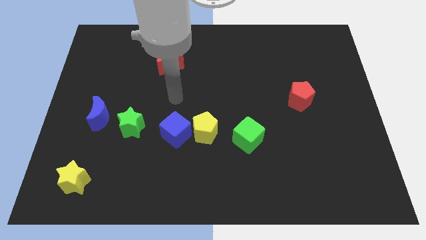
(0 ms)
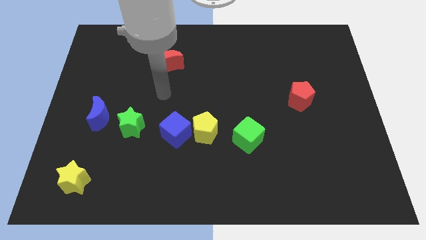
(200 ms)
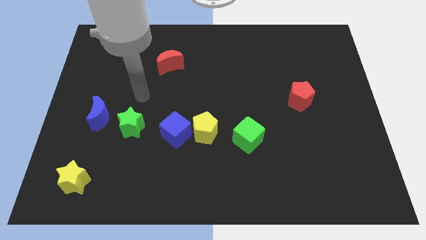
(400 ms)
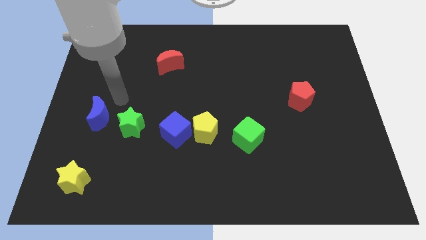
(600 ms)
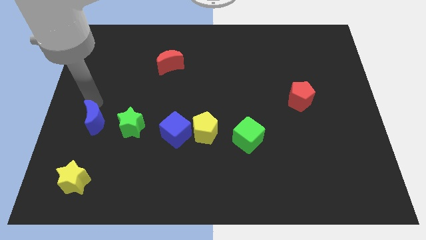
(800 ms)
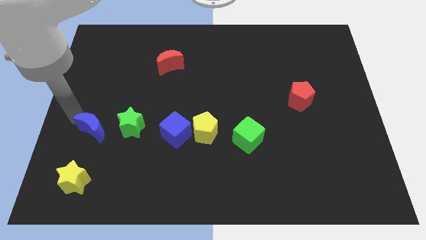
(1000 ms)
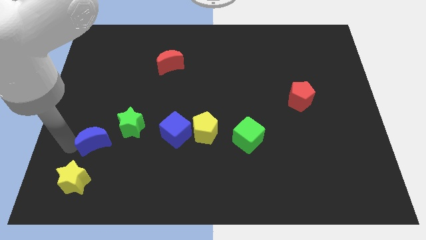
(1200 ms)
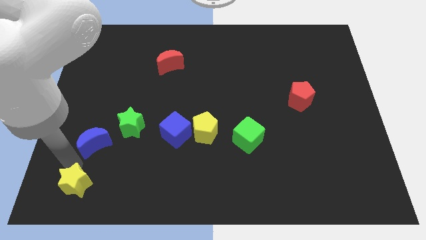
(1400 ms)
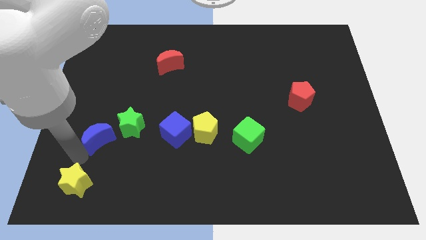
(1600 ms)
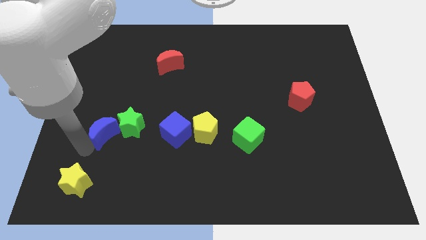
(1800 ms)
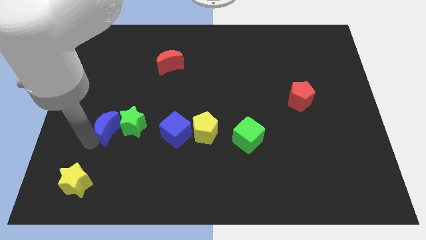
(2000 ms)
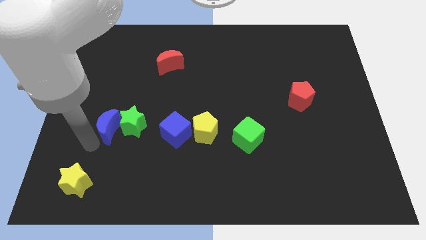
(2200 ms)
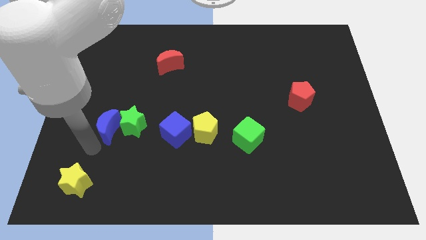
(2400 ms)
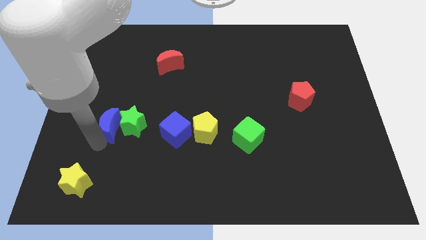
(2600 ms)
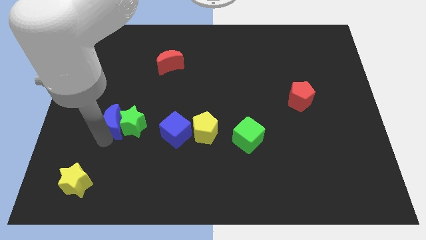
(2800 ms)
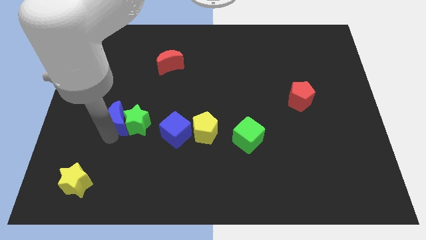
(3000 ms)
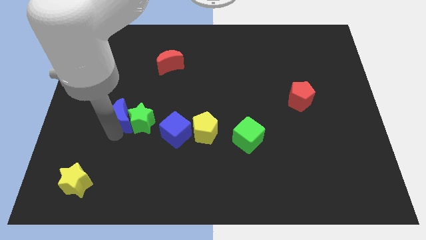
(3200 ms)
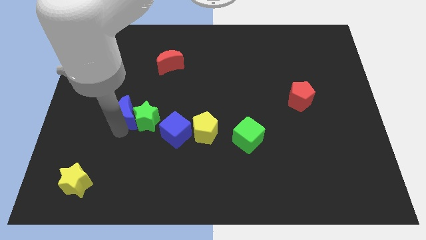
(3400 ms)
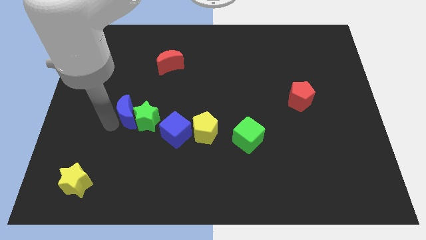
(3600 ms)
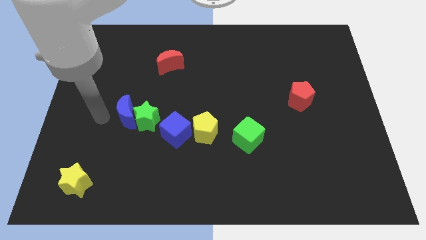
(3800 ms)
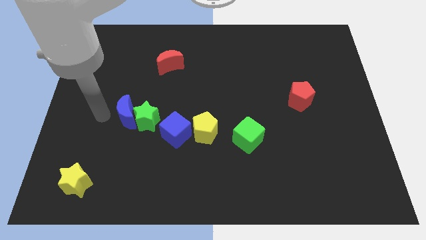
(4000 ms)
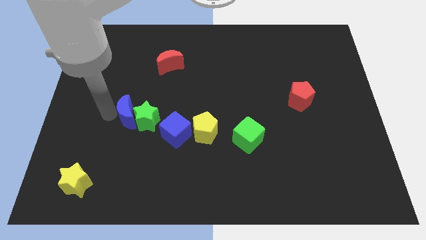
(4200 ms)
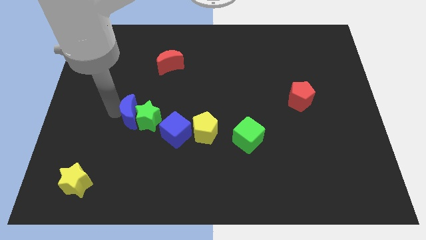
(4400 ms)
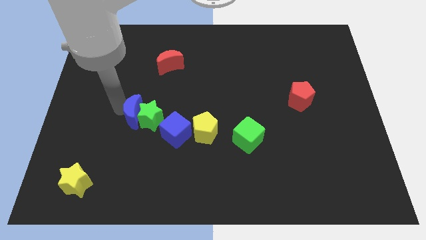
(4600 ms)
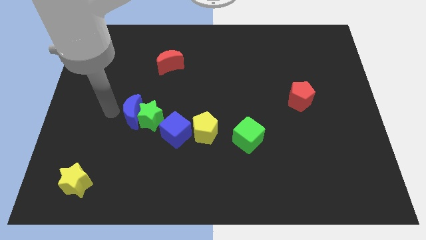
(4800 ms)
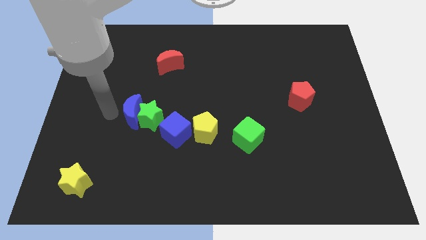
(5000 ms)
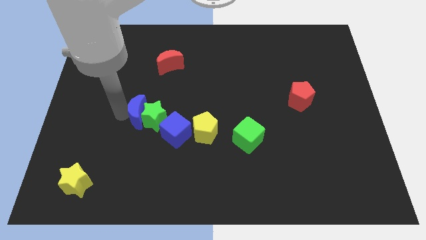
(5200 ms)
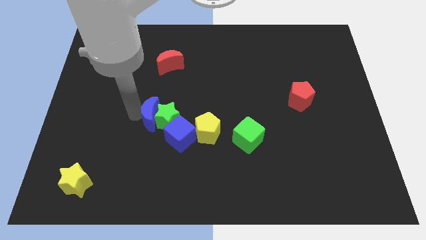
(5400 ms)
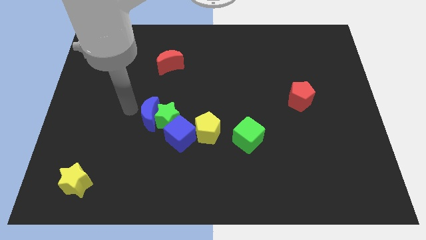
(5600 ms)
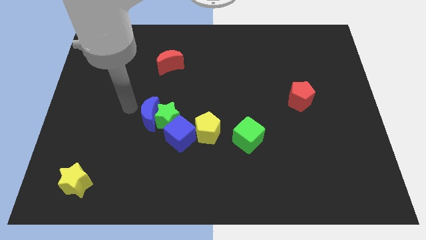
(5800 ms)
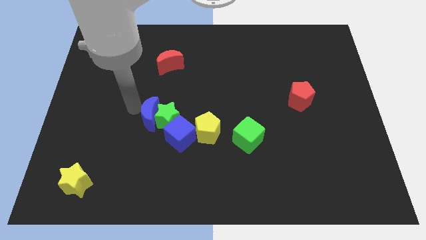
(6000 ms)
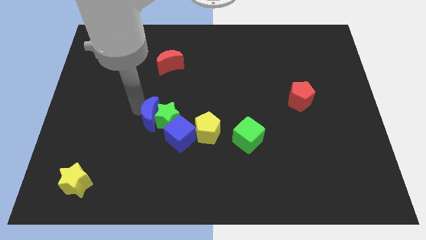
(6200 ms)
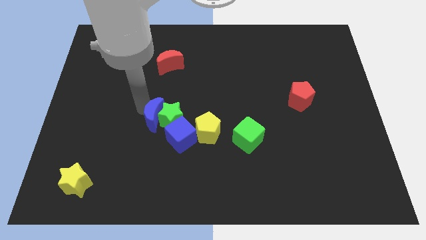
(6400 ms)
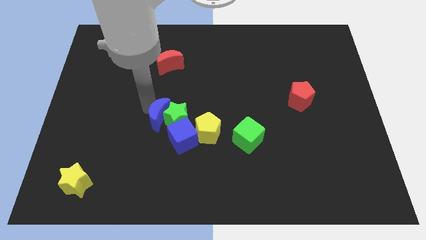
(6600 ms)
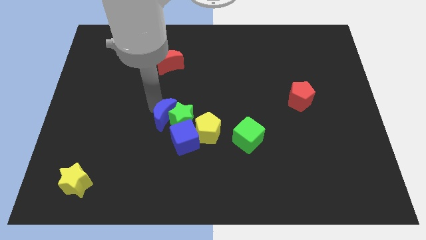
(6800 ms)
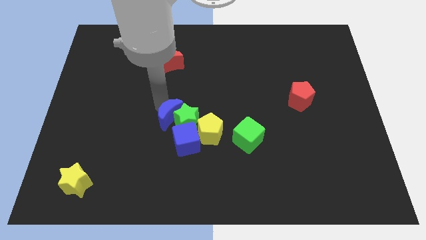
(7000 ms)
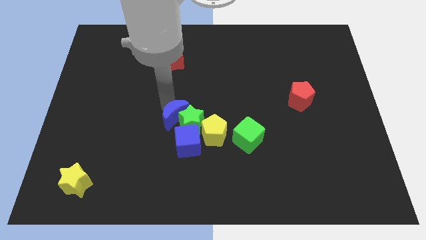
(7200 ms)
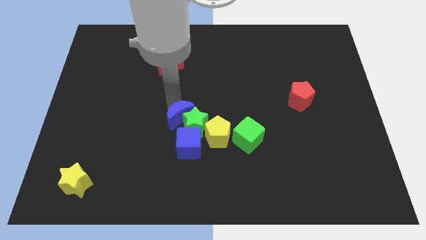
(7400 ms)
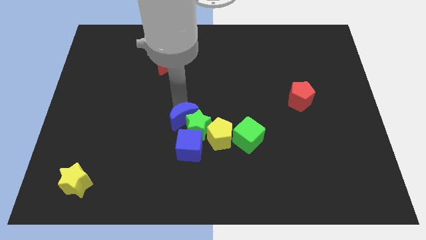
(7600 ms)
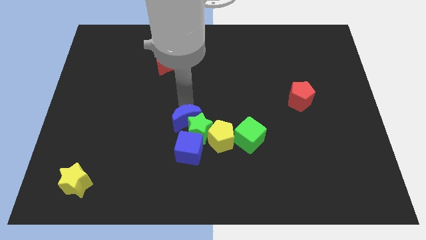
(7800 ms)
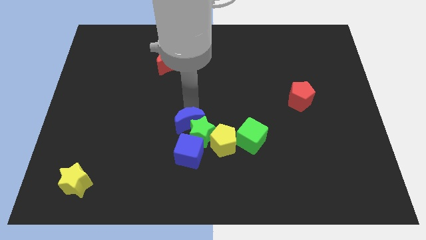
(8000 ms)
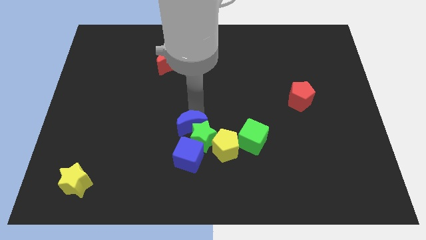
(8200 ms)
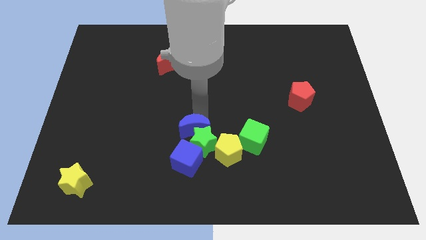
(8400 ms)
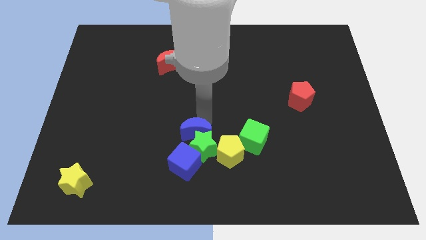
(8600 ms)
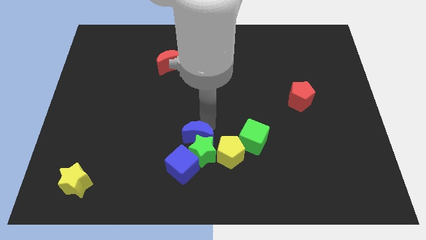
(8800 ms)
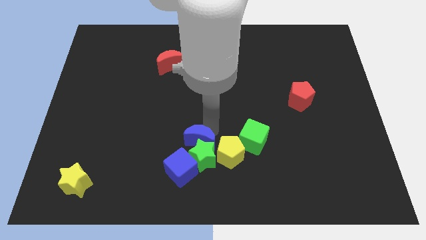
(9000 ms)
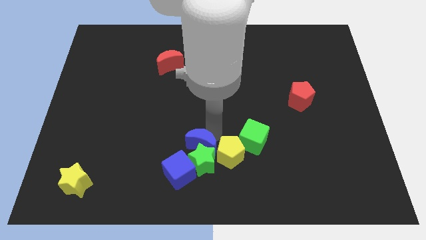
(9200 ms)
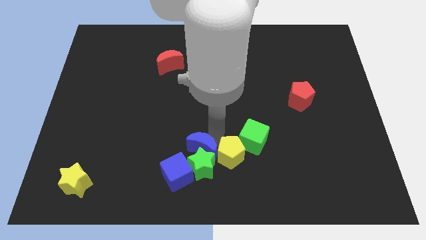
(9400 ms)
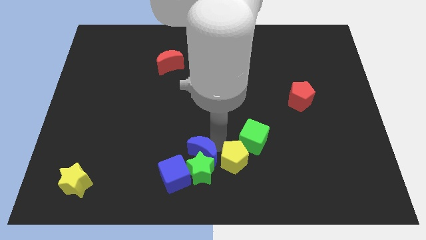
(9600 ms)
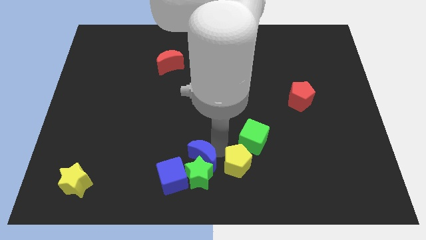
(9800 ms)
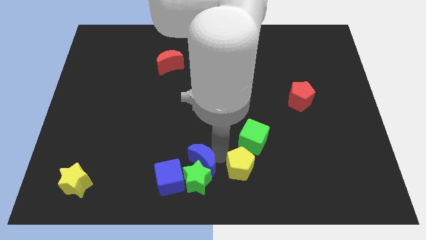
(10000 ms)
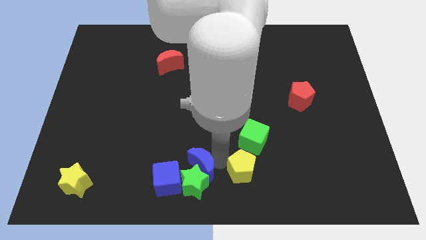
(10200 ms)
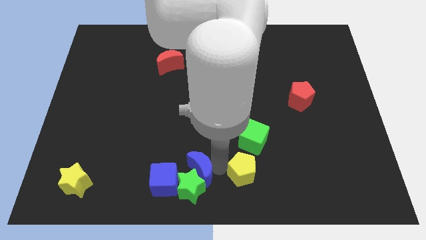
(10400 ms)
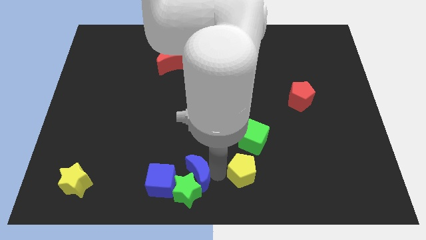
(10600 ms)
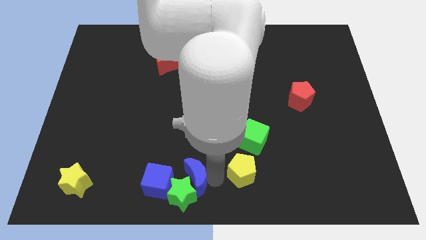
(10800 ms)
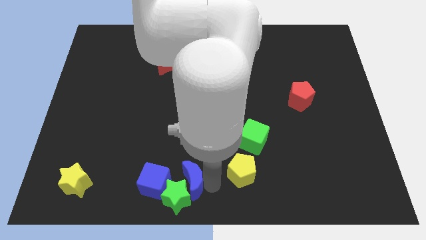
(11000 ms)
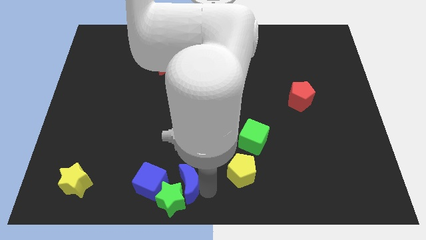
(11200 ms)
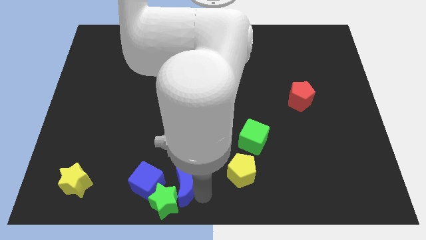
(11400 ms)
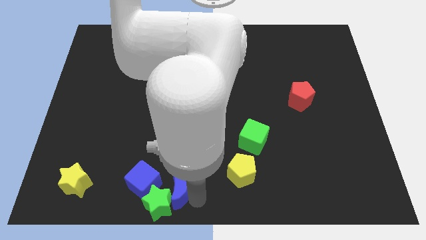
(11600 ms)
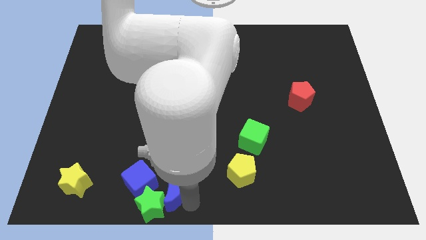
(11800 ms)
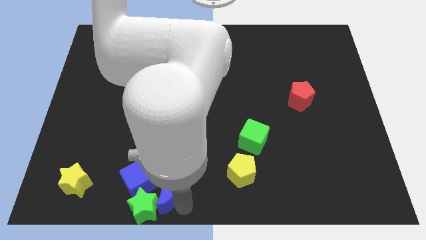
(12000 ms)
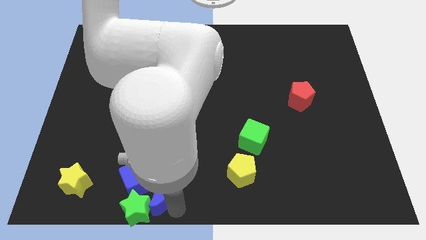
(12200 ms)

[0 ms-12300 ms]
move the blue moon close to the blue cube

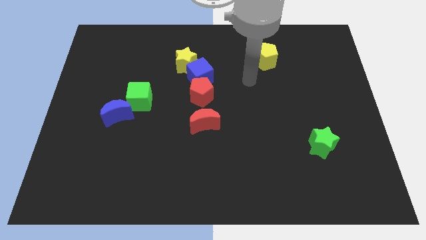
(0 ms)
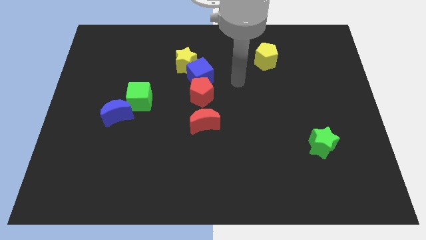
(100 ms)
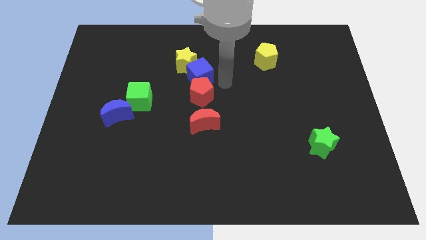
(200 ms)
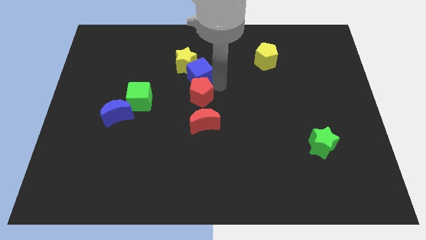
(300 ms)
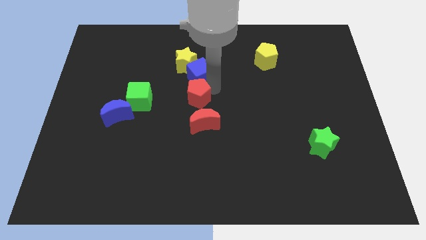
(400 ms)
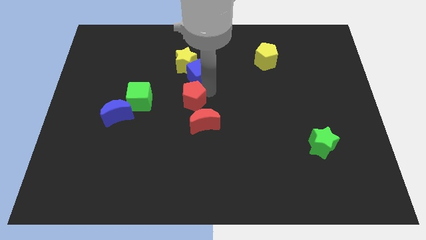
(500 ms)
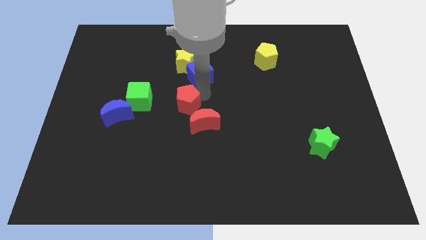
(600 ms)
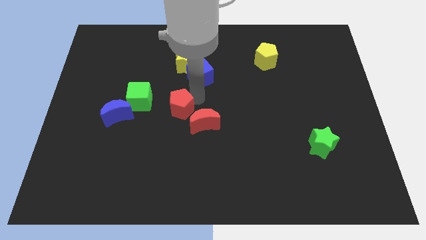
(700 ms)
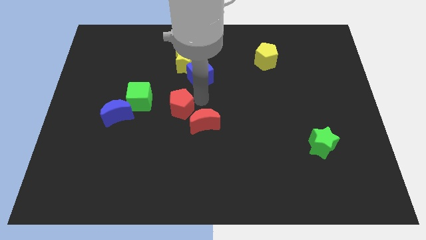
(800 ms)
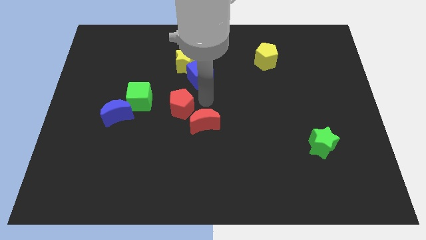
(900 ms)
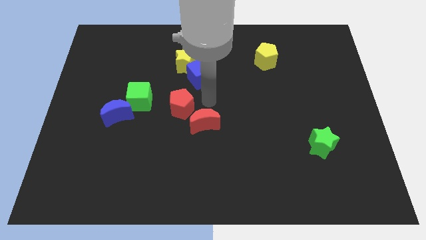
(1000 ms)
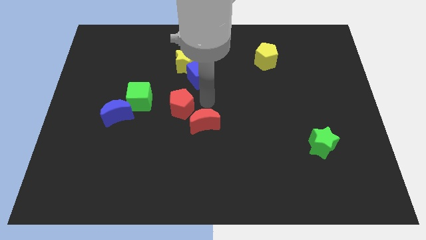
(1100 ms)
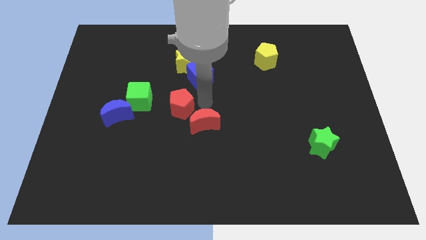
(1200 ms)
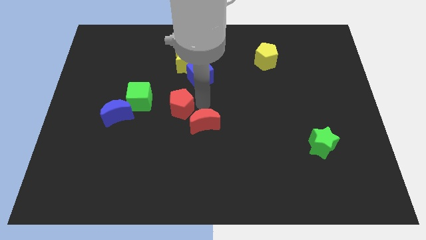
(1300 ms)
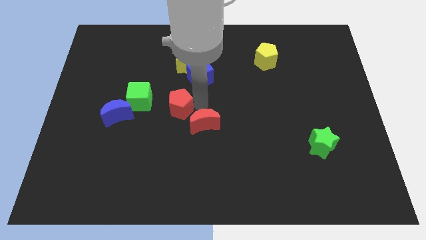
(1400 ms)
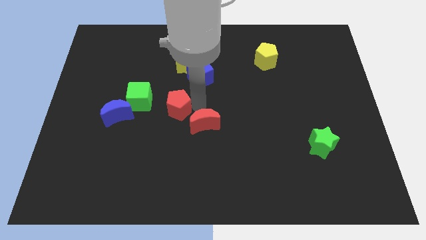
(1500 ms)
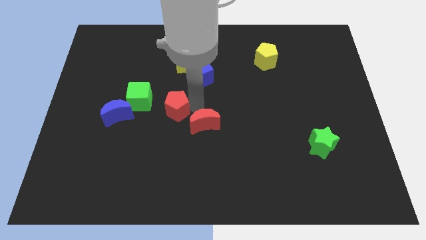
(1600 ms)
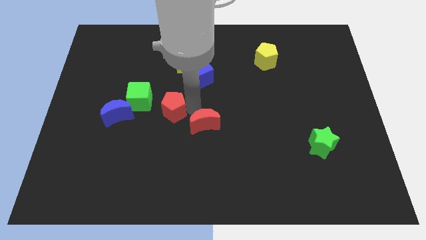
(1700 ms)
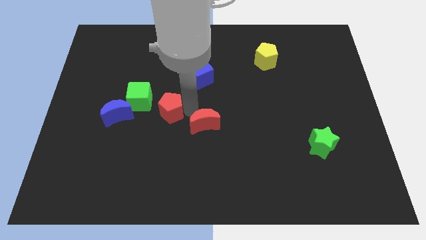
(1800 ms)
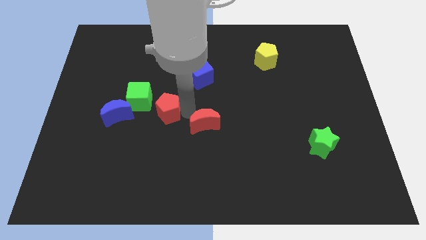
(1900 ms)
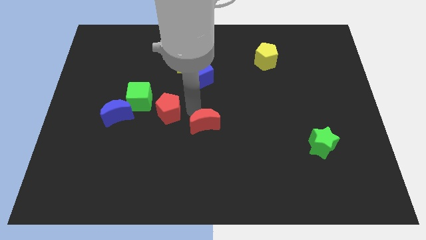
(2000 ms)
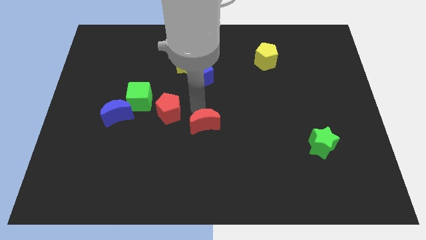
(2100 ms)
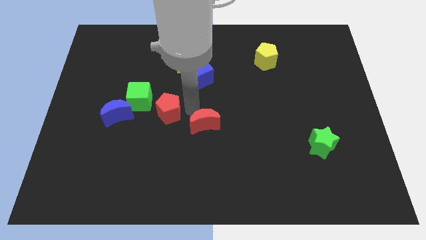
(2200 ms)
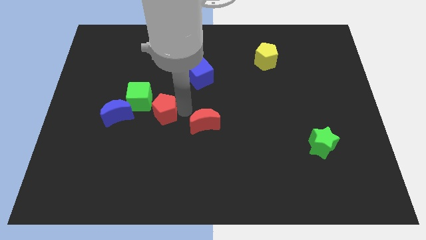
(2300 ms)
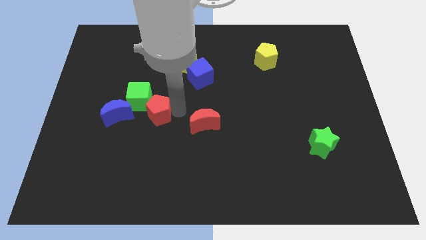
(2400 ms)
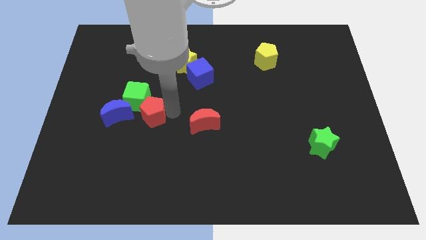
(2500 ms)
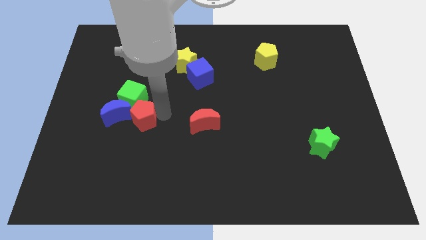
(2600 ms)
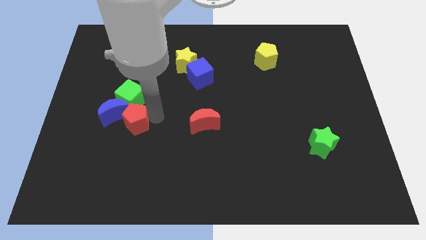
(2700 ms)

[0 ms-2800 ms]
move the red pentagon close to the blue moon
